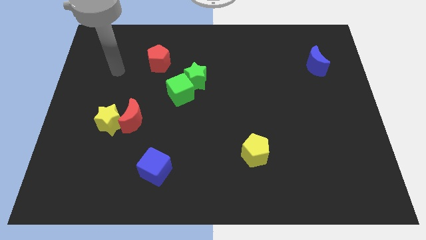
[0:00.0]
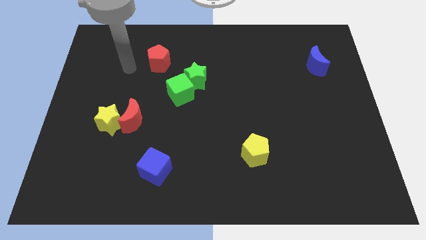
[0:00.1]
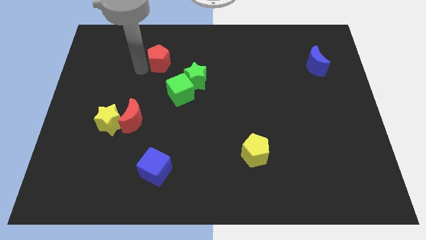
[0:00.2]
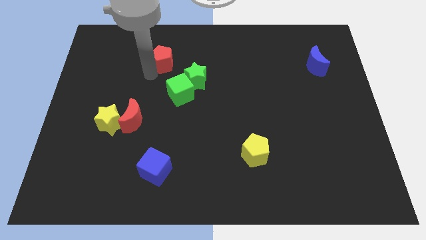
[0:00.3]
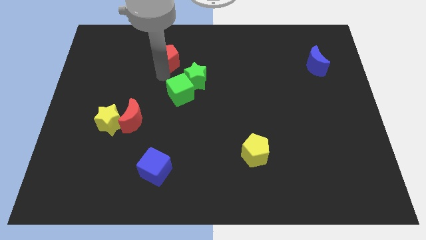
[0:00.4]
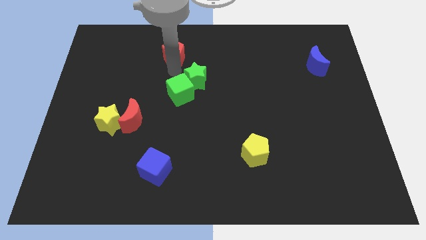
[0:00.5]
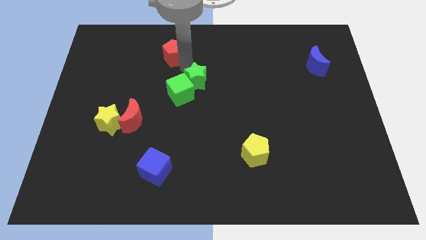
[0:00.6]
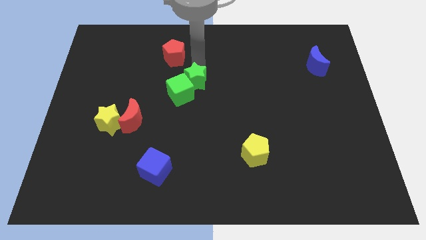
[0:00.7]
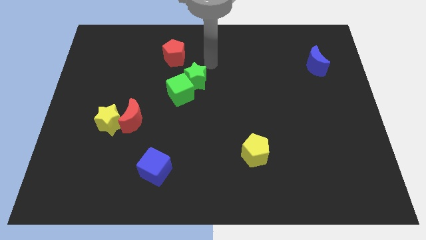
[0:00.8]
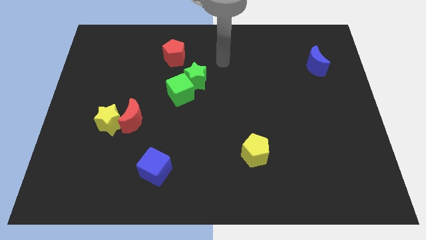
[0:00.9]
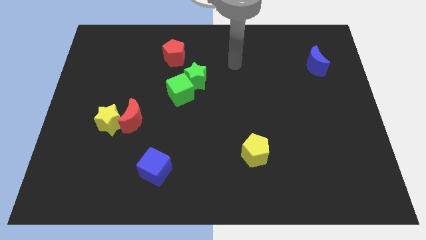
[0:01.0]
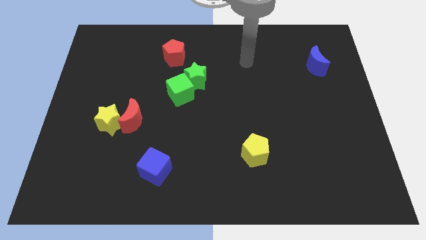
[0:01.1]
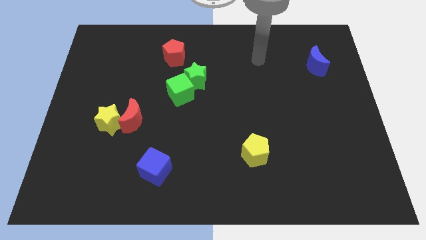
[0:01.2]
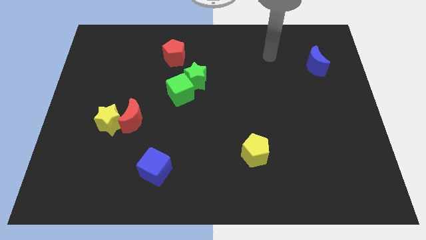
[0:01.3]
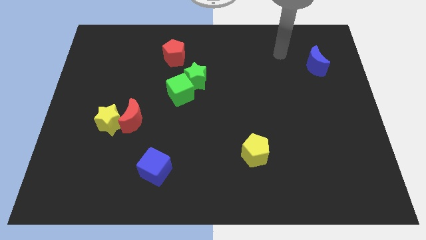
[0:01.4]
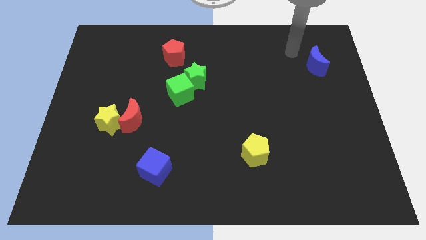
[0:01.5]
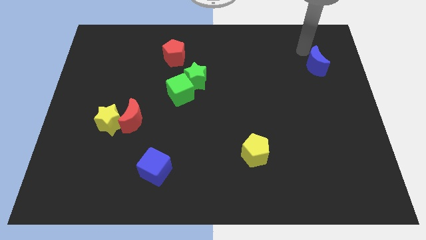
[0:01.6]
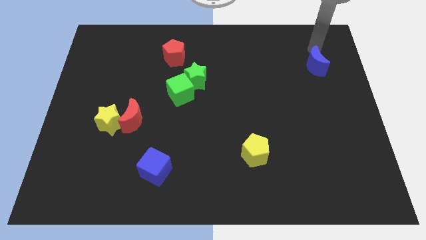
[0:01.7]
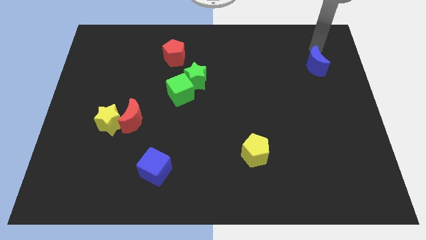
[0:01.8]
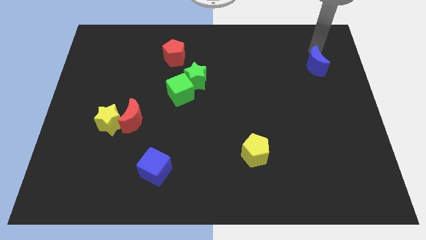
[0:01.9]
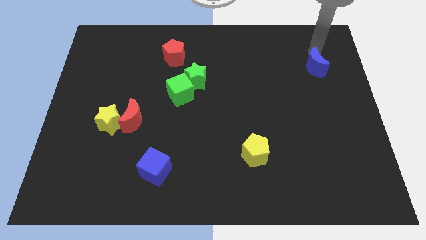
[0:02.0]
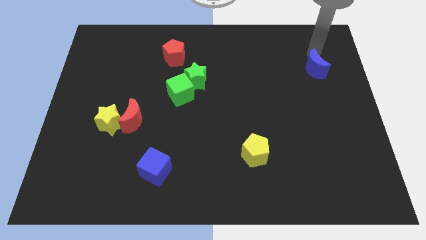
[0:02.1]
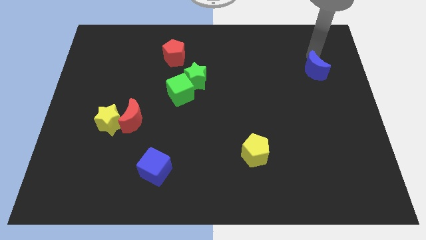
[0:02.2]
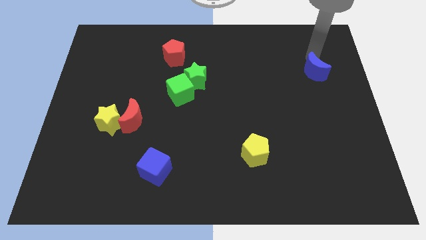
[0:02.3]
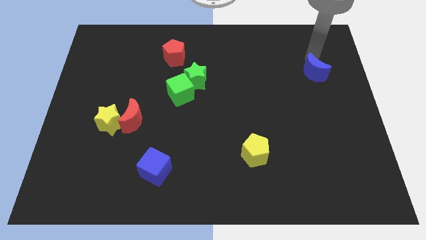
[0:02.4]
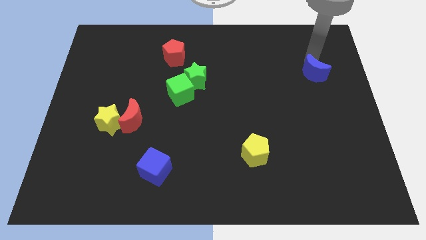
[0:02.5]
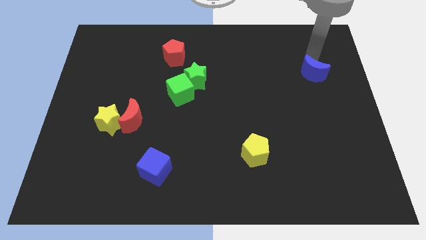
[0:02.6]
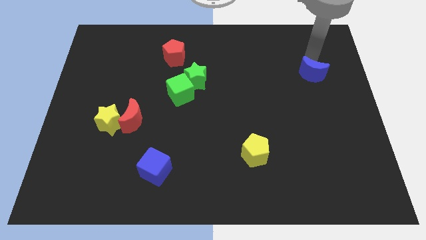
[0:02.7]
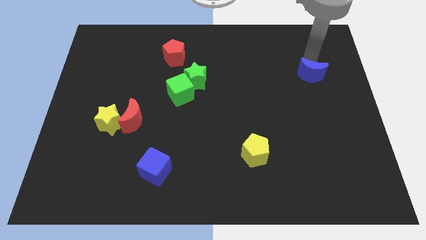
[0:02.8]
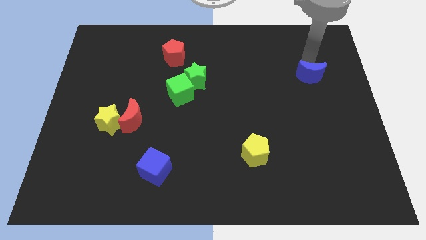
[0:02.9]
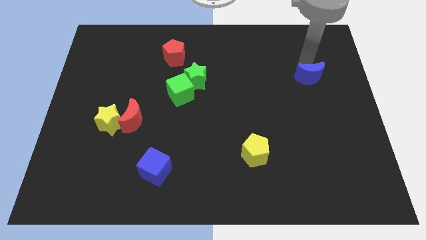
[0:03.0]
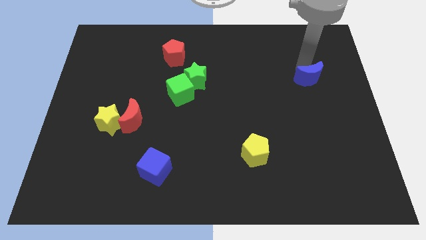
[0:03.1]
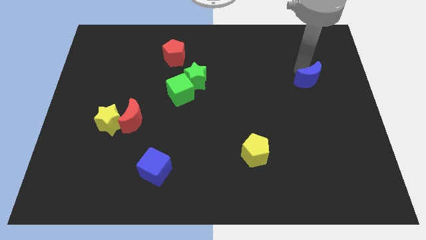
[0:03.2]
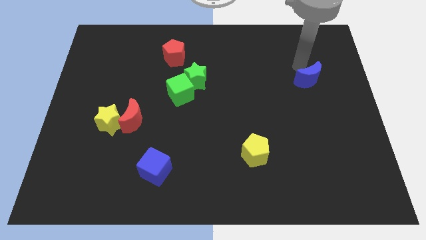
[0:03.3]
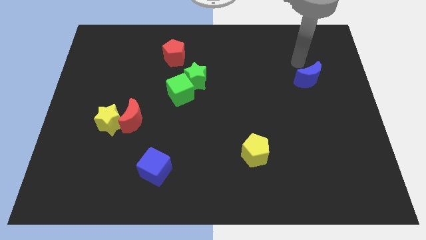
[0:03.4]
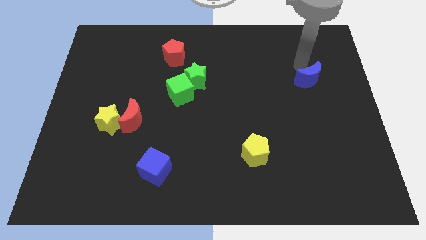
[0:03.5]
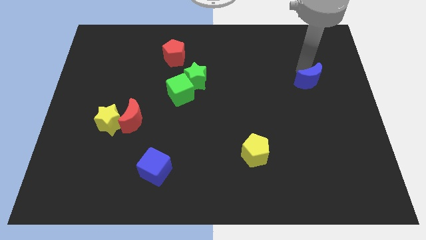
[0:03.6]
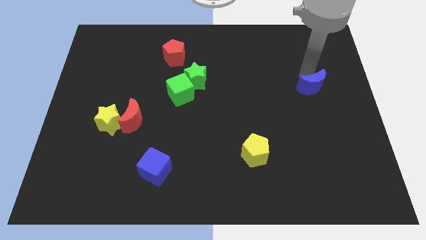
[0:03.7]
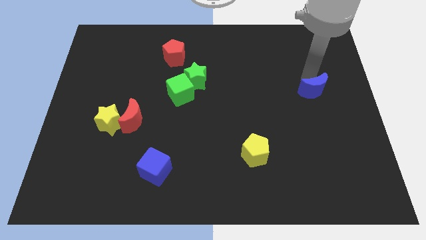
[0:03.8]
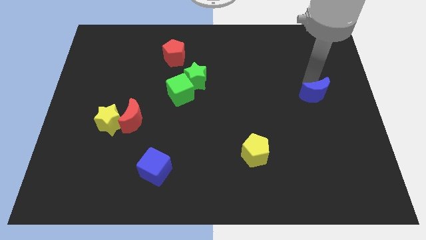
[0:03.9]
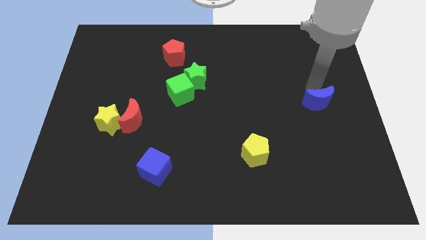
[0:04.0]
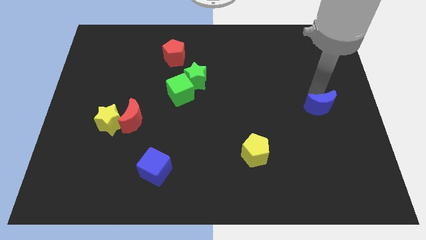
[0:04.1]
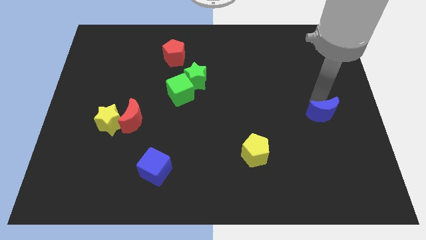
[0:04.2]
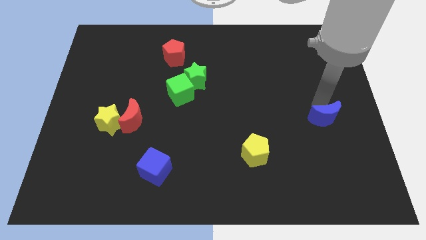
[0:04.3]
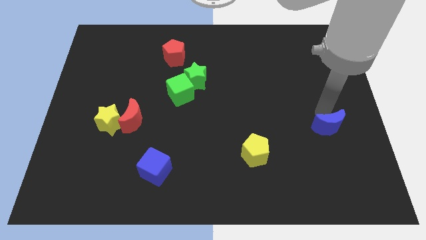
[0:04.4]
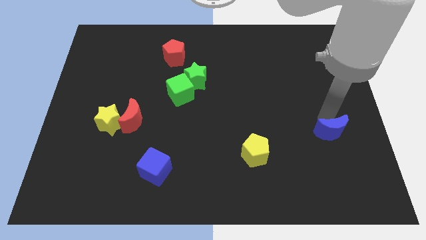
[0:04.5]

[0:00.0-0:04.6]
move the blue moon downwards

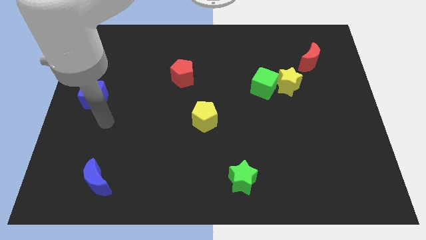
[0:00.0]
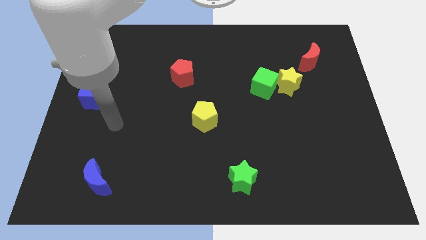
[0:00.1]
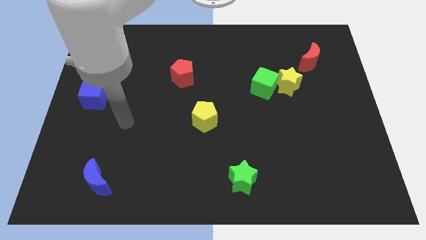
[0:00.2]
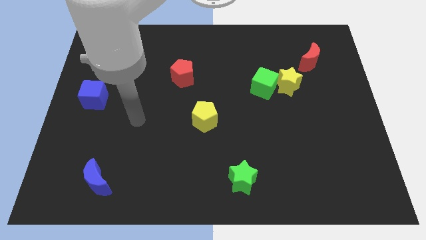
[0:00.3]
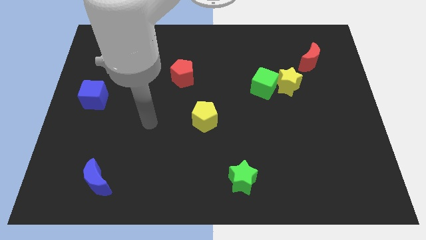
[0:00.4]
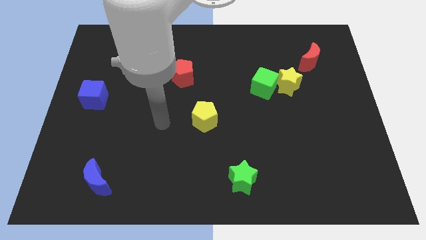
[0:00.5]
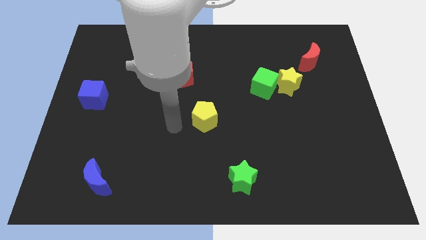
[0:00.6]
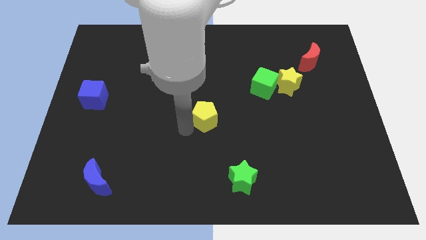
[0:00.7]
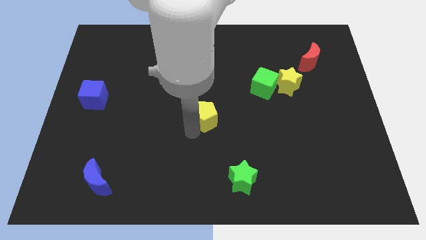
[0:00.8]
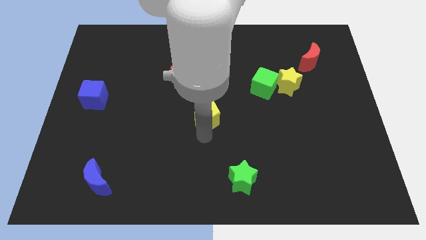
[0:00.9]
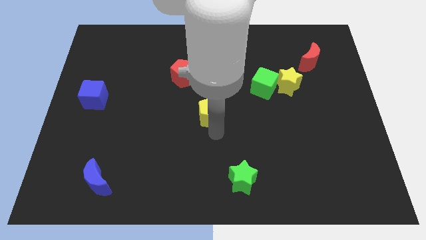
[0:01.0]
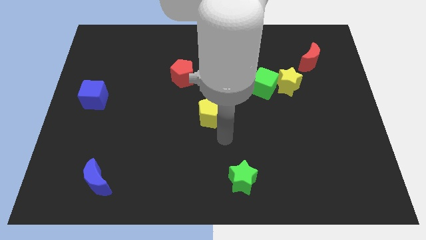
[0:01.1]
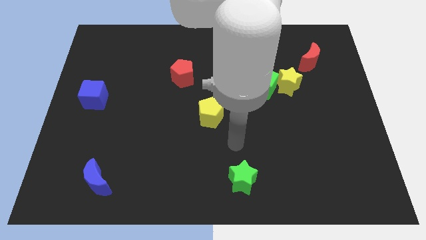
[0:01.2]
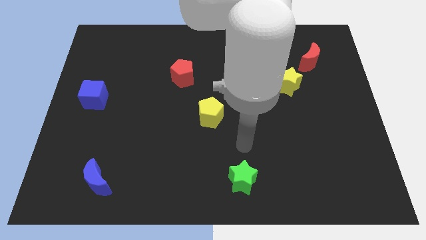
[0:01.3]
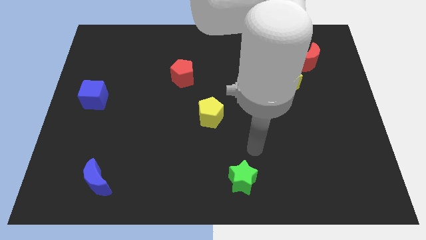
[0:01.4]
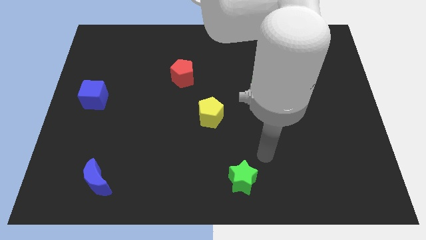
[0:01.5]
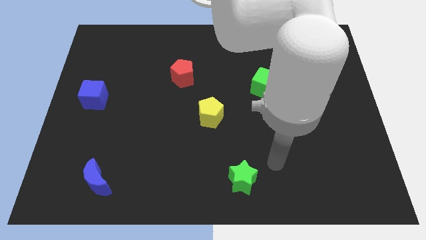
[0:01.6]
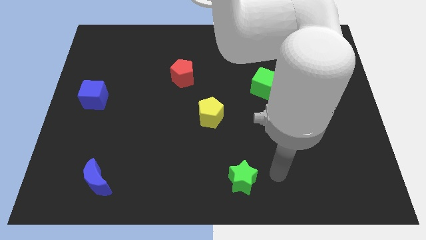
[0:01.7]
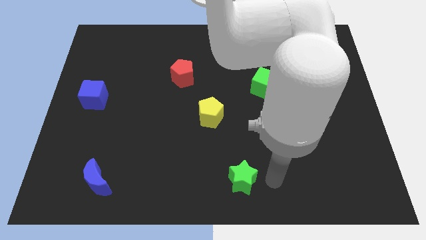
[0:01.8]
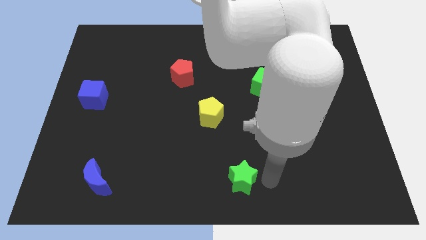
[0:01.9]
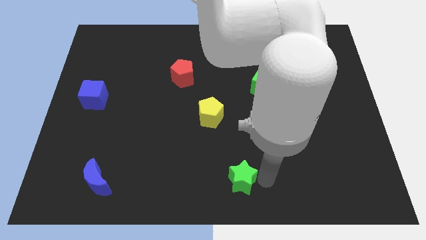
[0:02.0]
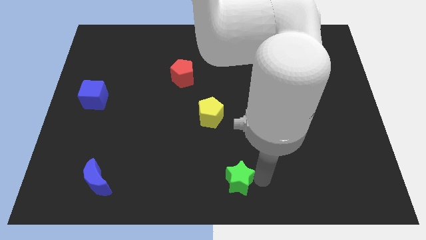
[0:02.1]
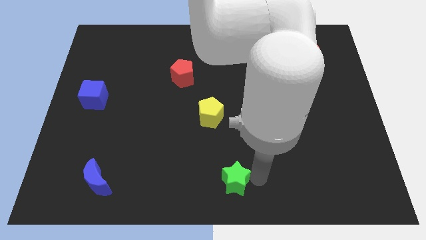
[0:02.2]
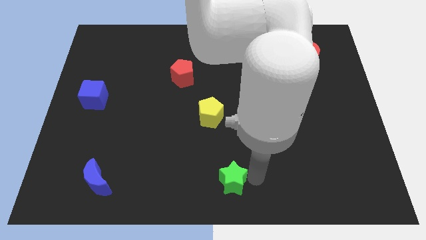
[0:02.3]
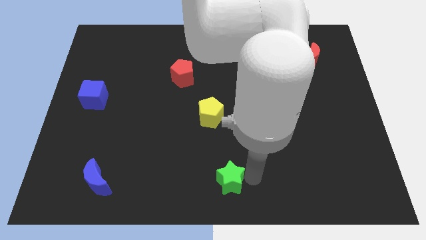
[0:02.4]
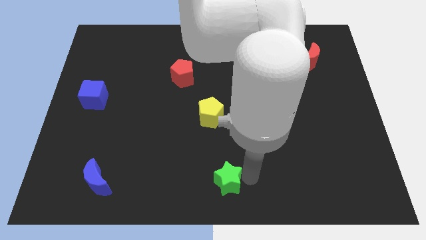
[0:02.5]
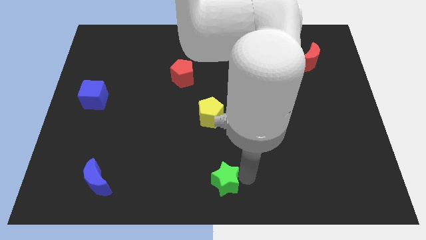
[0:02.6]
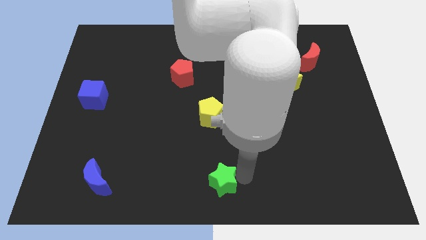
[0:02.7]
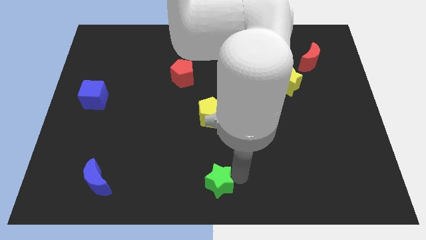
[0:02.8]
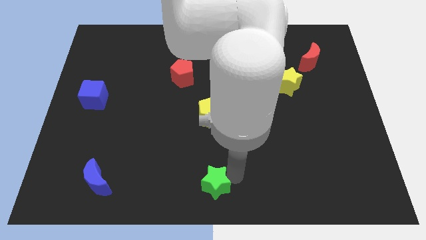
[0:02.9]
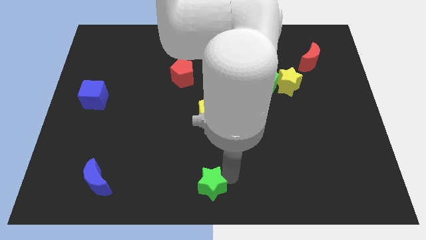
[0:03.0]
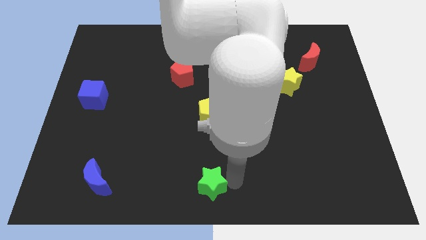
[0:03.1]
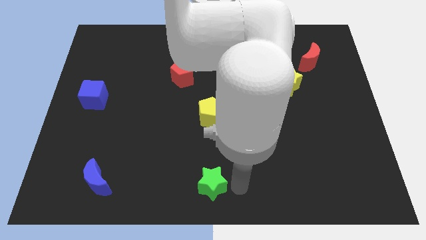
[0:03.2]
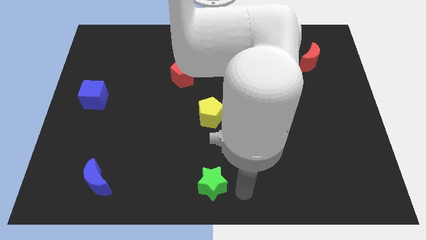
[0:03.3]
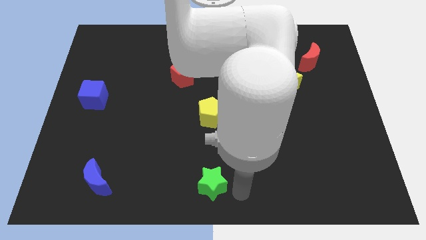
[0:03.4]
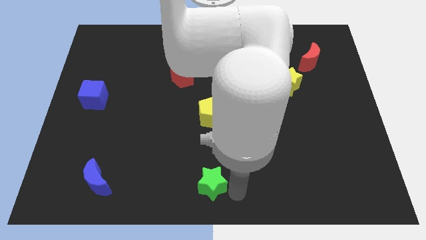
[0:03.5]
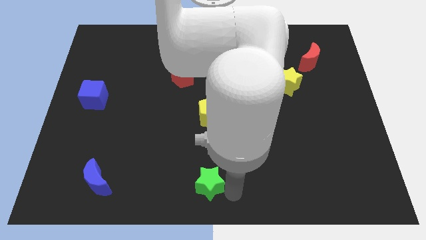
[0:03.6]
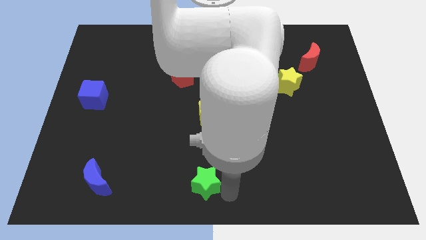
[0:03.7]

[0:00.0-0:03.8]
slightly push the green star to the left
